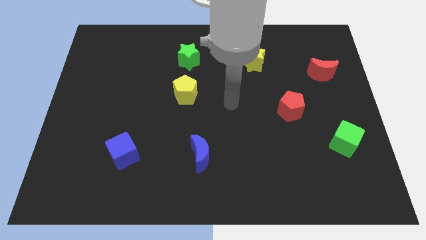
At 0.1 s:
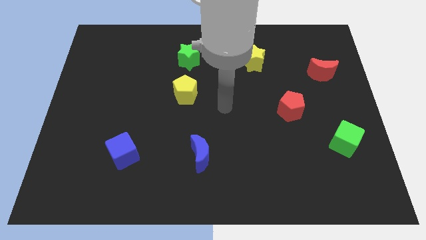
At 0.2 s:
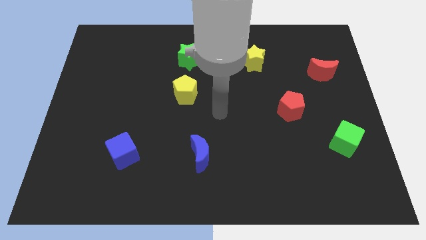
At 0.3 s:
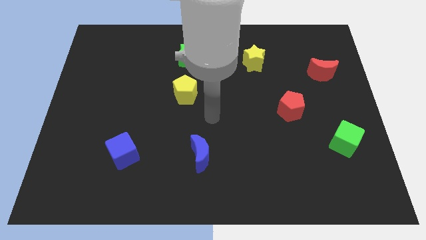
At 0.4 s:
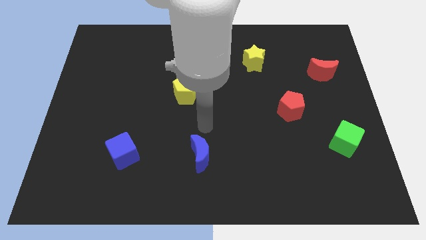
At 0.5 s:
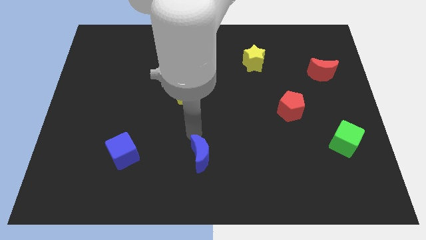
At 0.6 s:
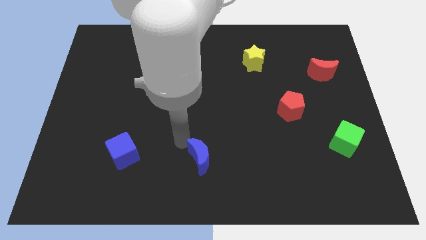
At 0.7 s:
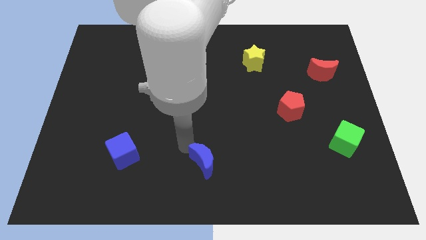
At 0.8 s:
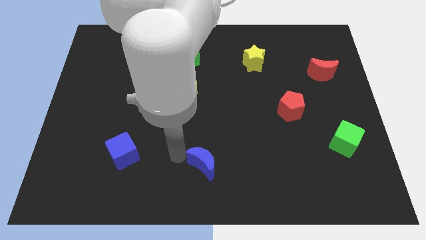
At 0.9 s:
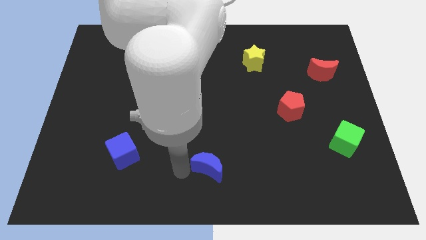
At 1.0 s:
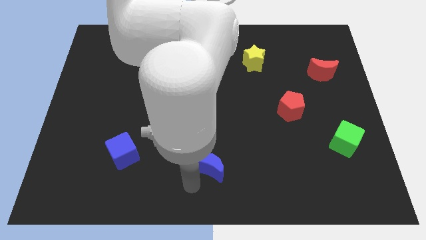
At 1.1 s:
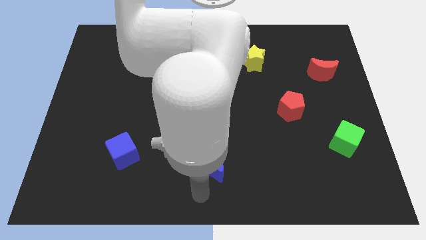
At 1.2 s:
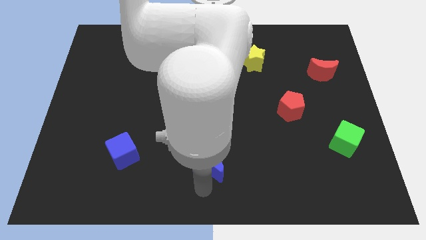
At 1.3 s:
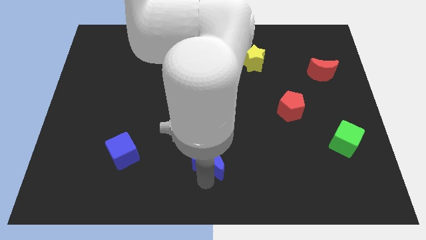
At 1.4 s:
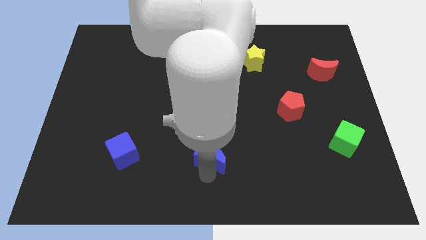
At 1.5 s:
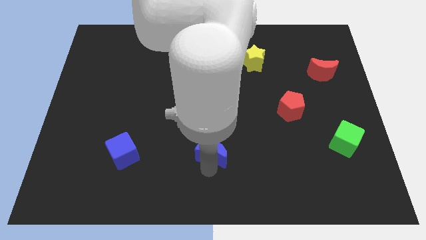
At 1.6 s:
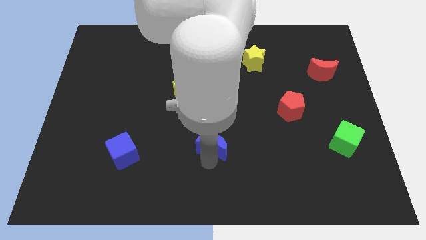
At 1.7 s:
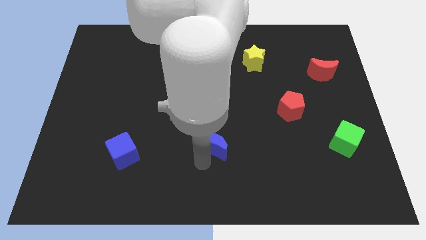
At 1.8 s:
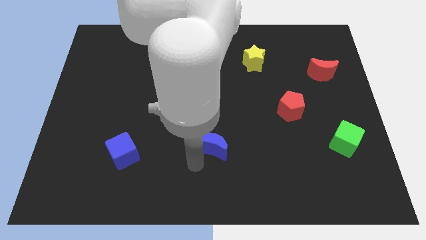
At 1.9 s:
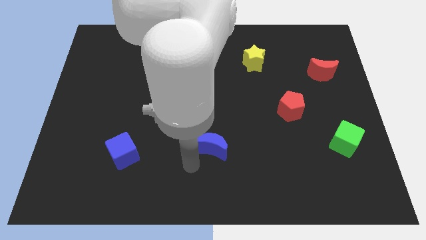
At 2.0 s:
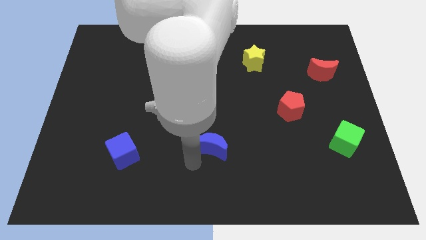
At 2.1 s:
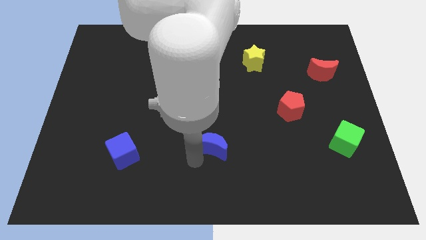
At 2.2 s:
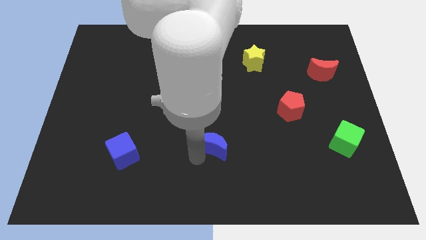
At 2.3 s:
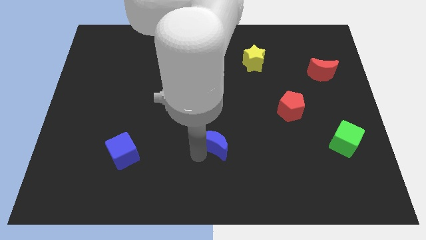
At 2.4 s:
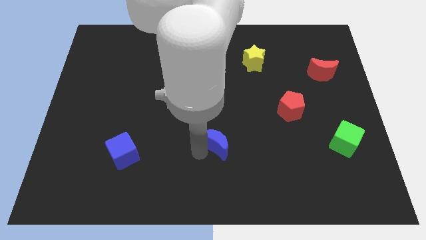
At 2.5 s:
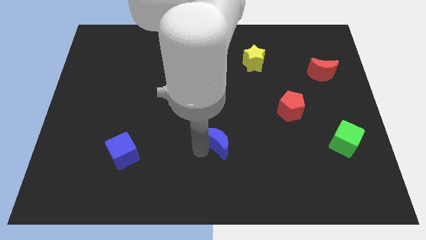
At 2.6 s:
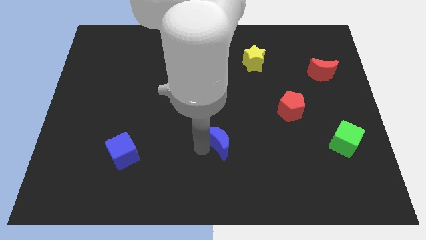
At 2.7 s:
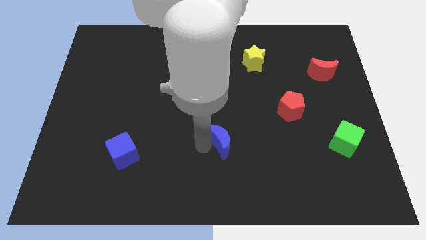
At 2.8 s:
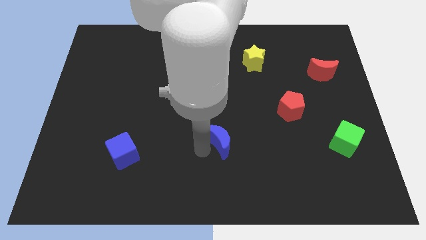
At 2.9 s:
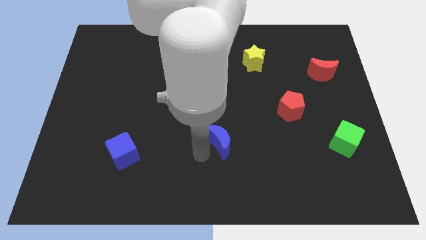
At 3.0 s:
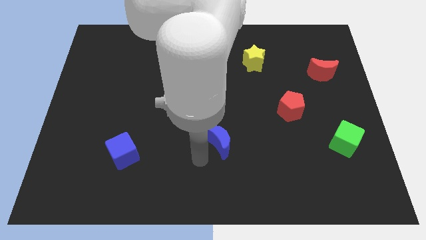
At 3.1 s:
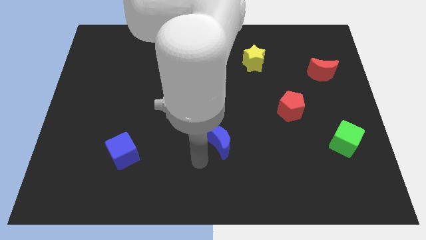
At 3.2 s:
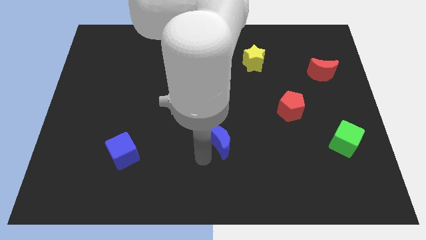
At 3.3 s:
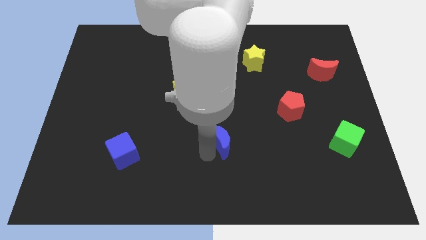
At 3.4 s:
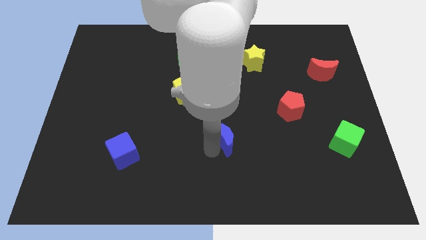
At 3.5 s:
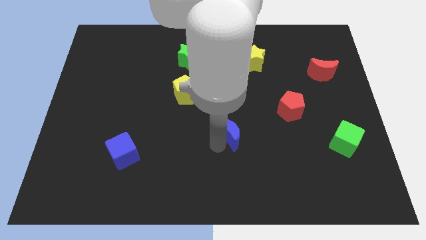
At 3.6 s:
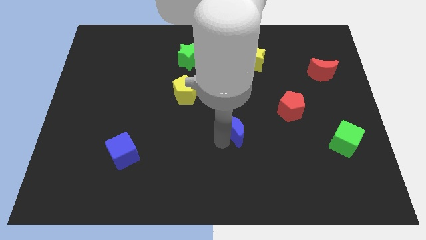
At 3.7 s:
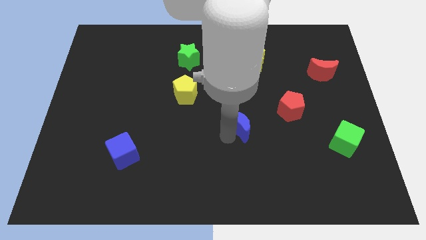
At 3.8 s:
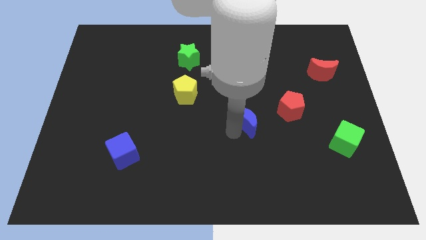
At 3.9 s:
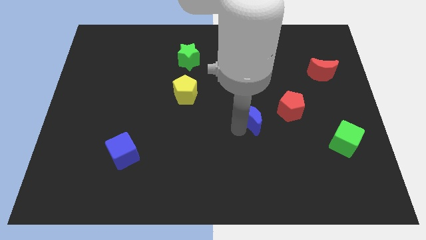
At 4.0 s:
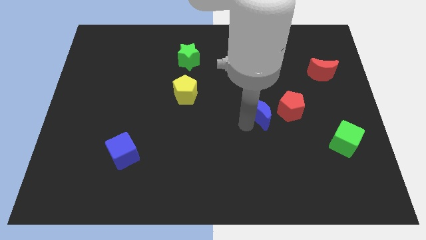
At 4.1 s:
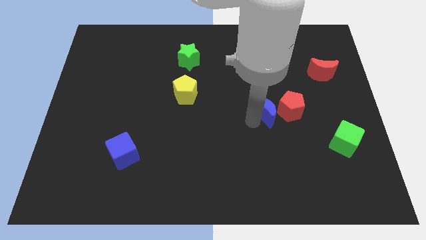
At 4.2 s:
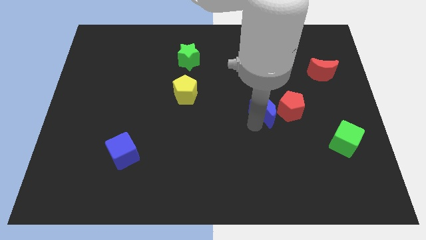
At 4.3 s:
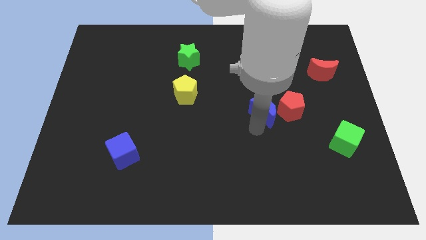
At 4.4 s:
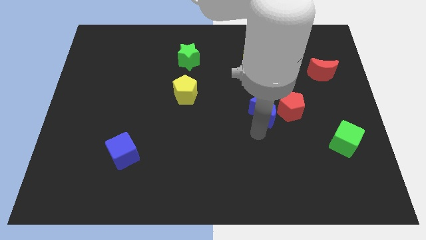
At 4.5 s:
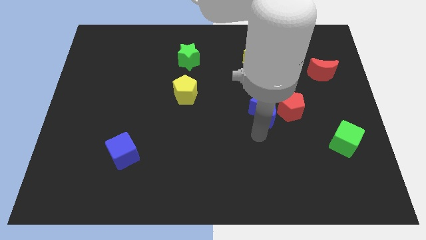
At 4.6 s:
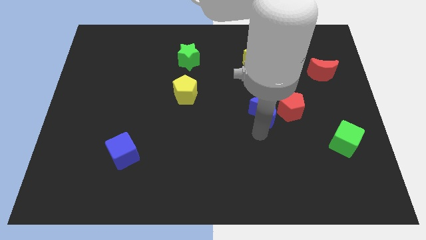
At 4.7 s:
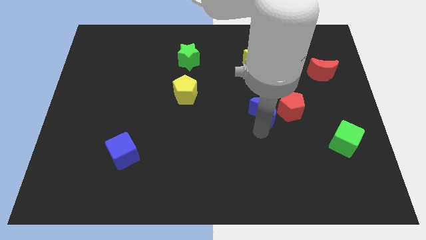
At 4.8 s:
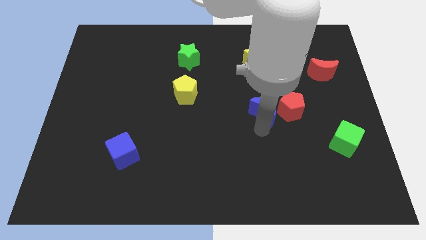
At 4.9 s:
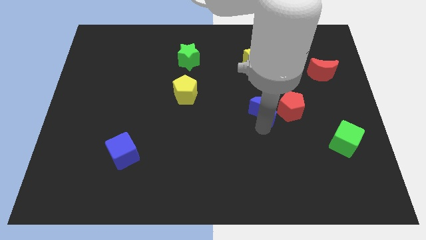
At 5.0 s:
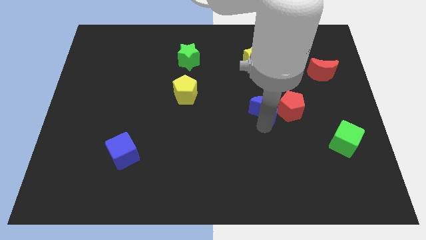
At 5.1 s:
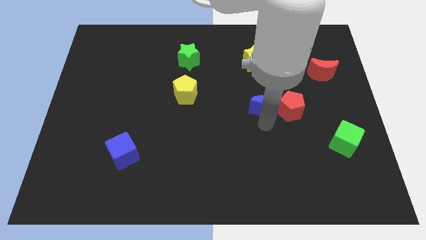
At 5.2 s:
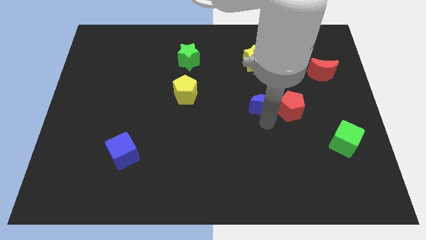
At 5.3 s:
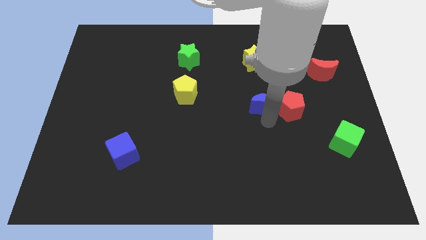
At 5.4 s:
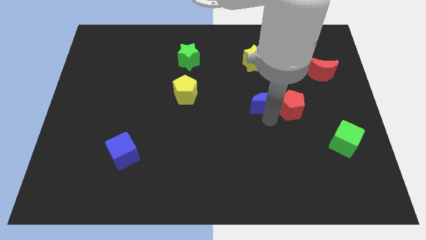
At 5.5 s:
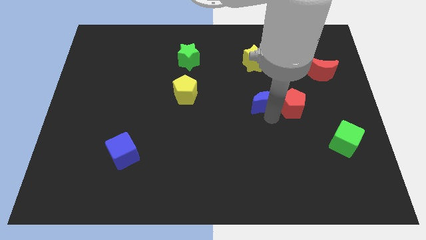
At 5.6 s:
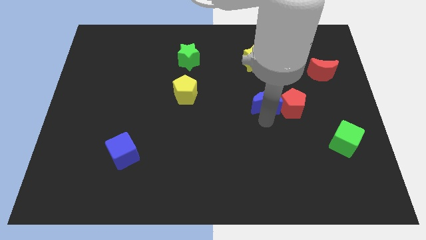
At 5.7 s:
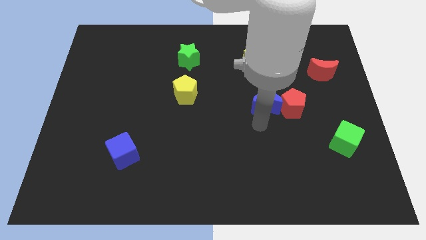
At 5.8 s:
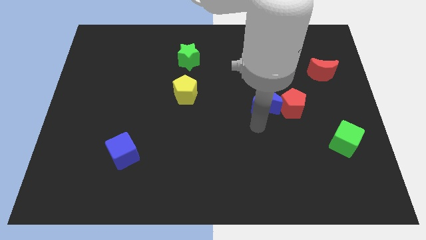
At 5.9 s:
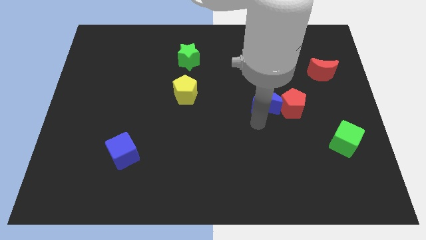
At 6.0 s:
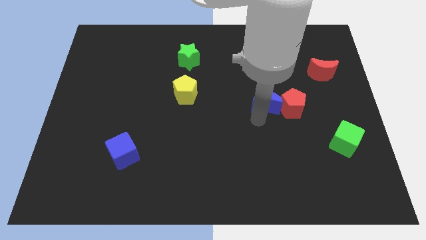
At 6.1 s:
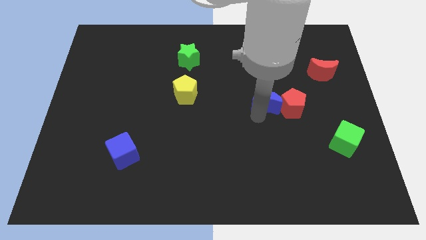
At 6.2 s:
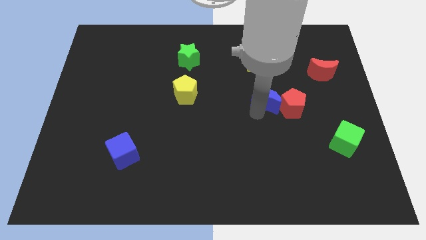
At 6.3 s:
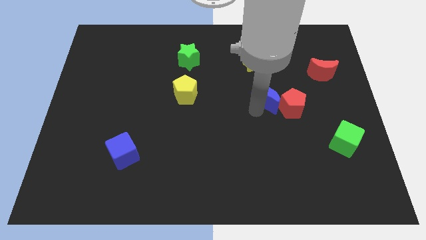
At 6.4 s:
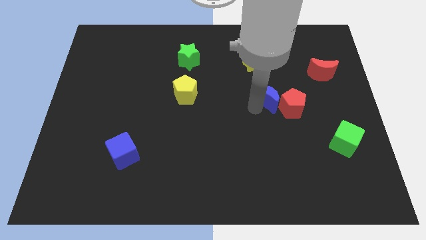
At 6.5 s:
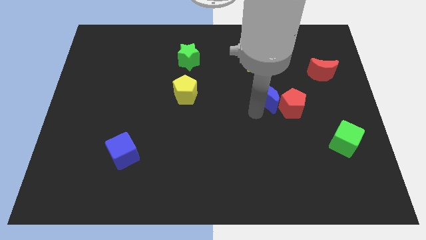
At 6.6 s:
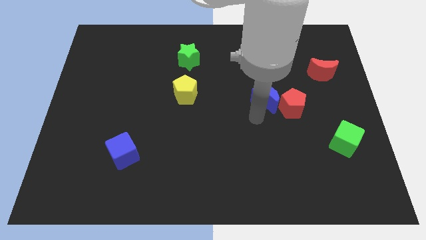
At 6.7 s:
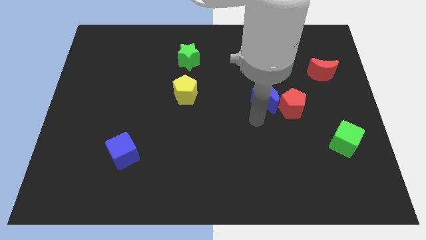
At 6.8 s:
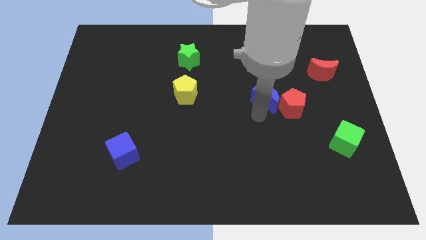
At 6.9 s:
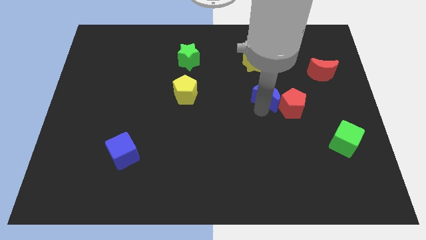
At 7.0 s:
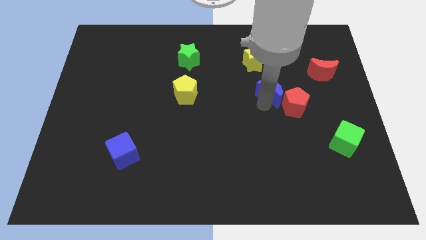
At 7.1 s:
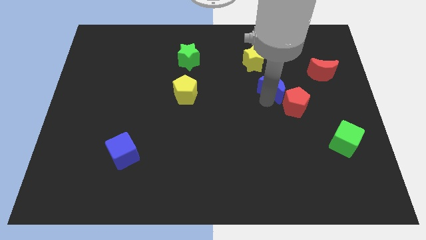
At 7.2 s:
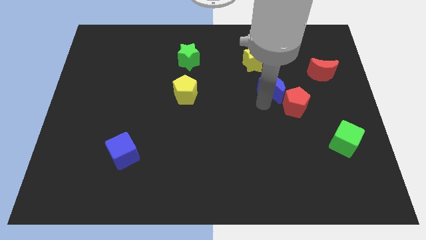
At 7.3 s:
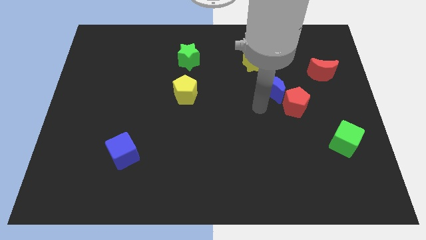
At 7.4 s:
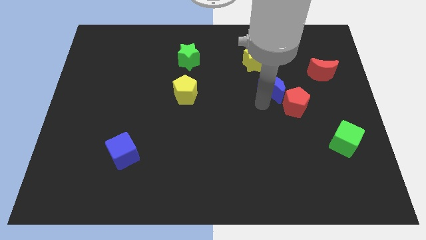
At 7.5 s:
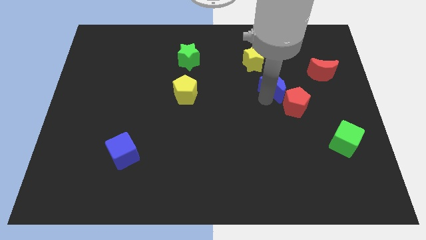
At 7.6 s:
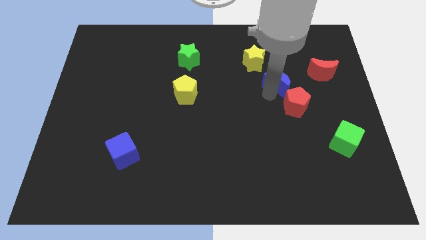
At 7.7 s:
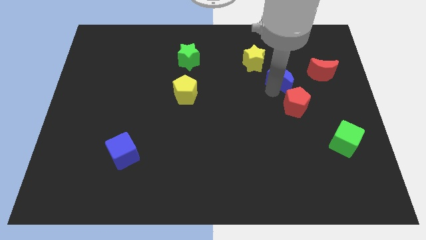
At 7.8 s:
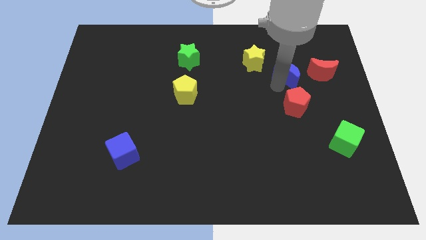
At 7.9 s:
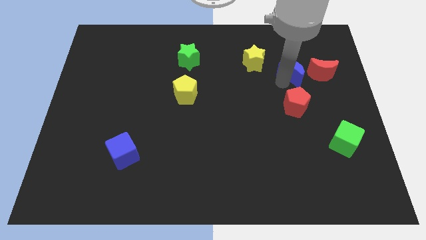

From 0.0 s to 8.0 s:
slide the blue moon just right of the yellow star
